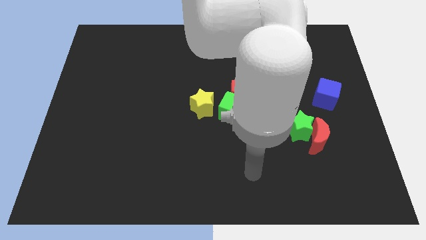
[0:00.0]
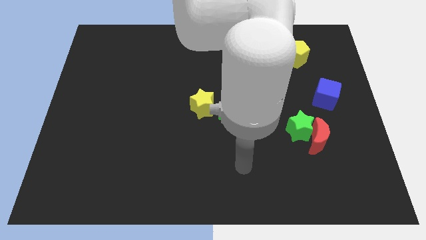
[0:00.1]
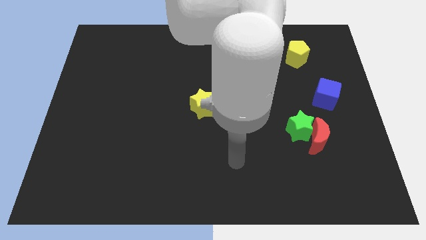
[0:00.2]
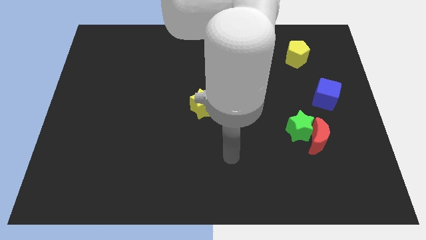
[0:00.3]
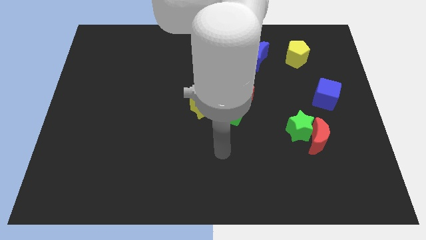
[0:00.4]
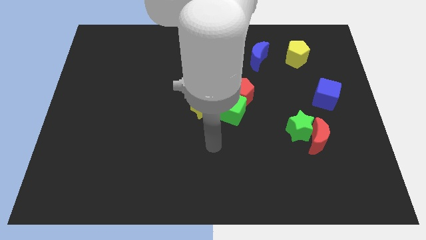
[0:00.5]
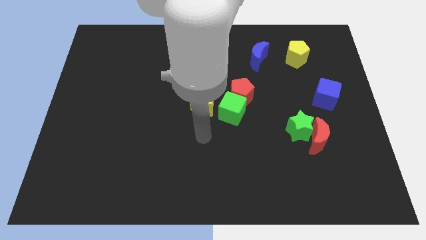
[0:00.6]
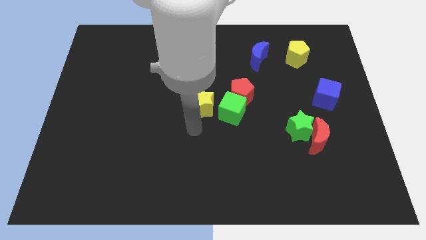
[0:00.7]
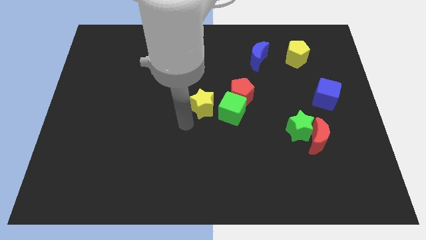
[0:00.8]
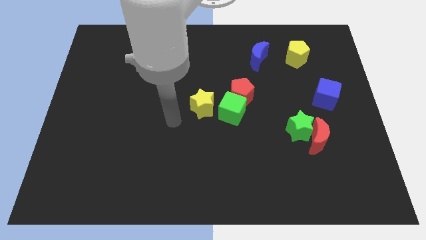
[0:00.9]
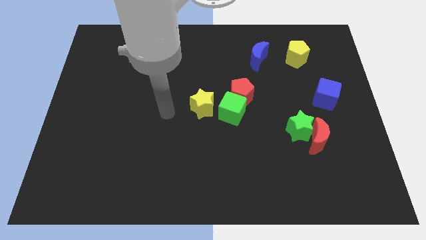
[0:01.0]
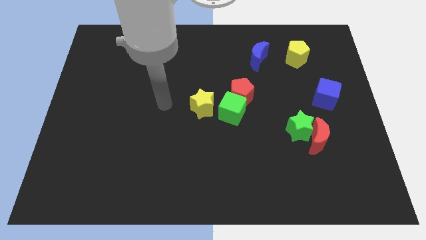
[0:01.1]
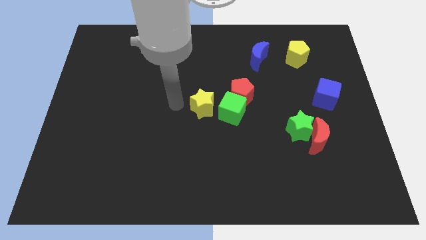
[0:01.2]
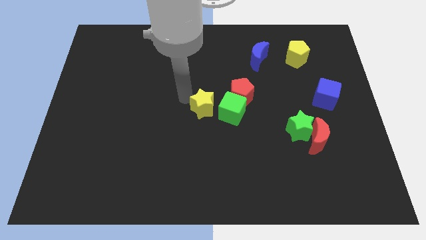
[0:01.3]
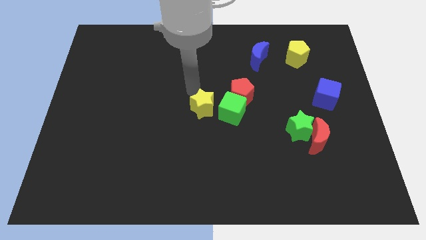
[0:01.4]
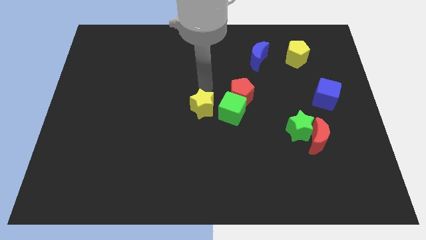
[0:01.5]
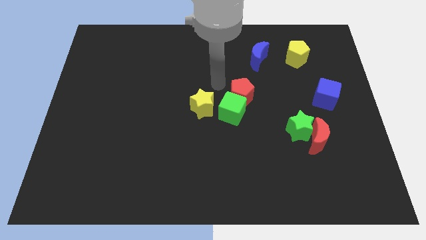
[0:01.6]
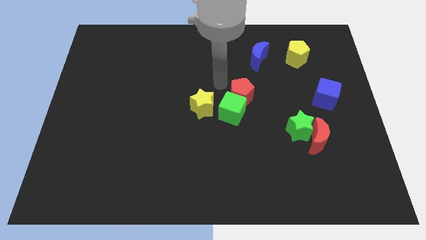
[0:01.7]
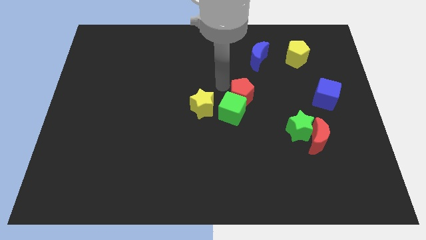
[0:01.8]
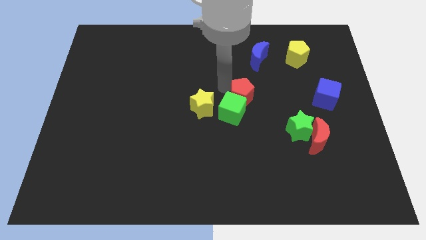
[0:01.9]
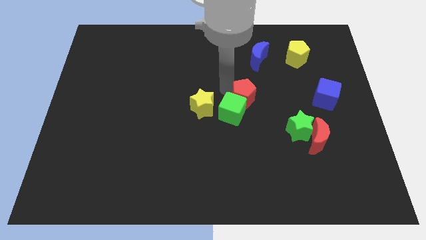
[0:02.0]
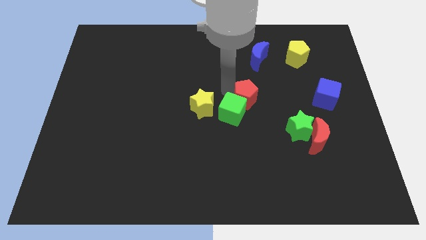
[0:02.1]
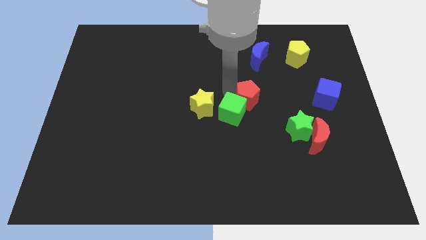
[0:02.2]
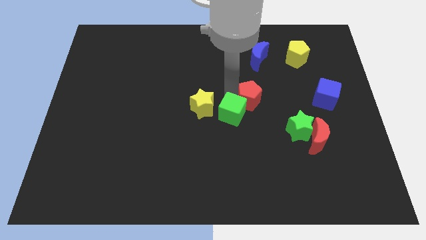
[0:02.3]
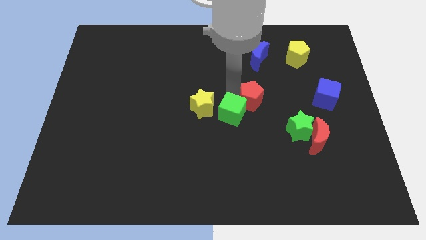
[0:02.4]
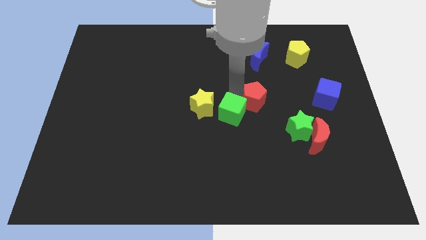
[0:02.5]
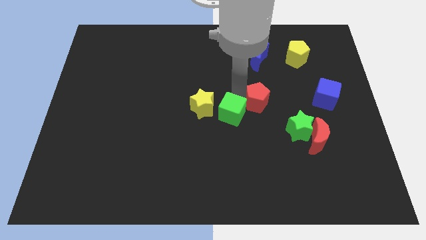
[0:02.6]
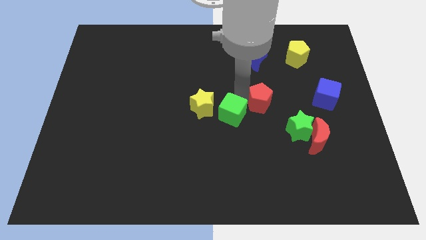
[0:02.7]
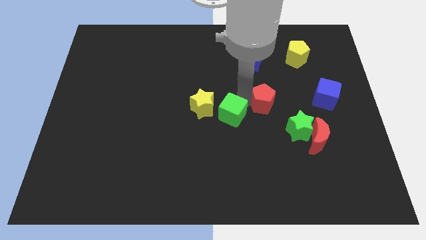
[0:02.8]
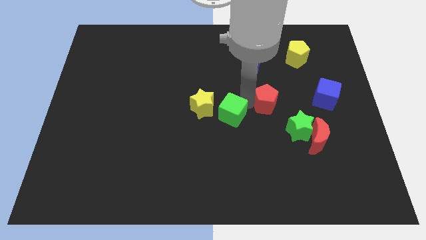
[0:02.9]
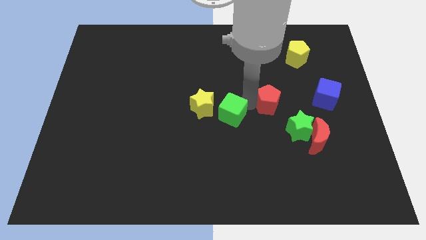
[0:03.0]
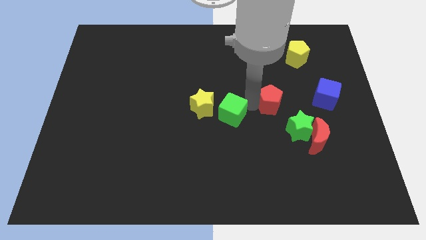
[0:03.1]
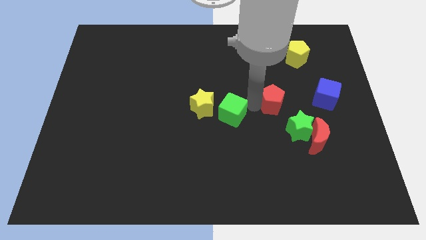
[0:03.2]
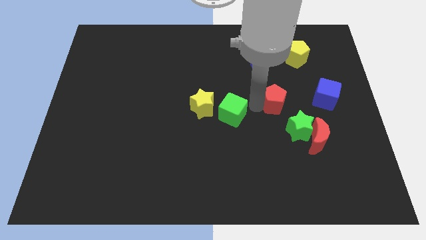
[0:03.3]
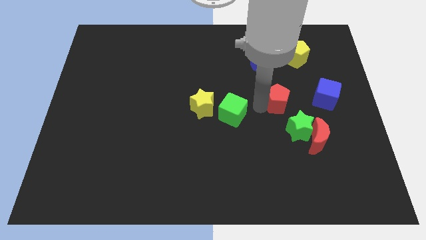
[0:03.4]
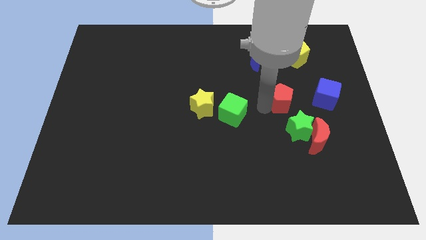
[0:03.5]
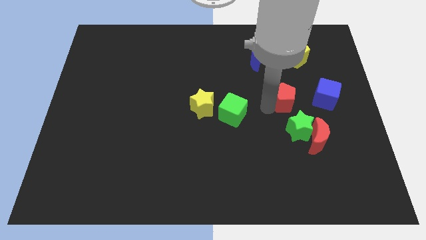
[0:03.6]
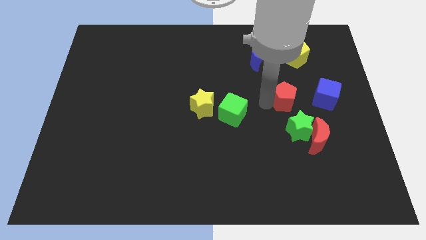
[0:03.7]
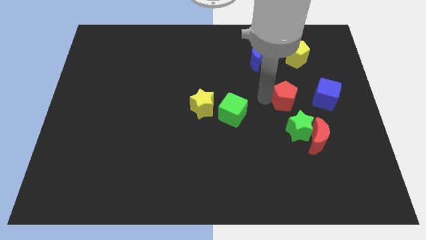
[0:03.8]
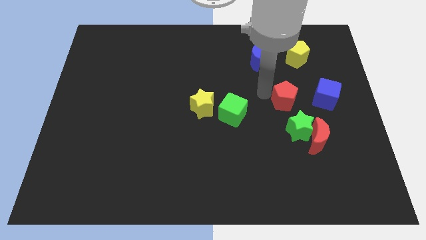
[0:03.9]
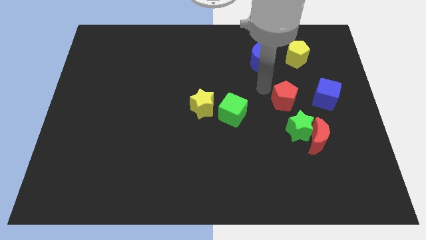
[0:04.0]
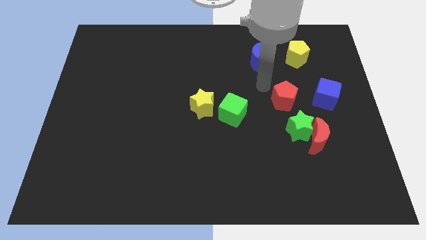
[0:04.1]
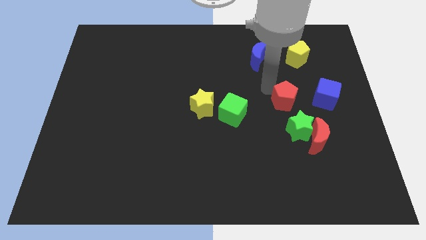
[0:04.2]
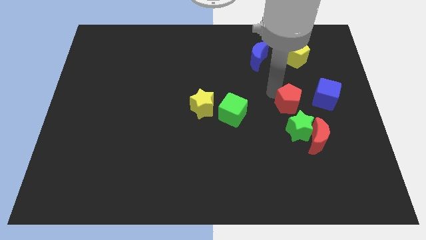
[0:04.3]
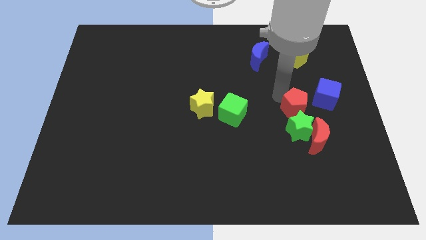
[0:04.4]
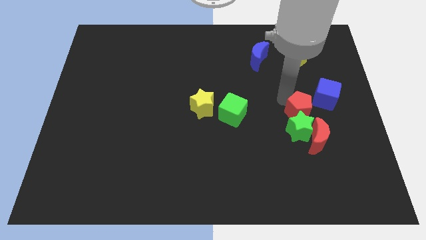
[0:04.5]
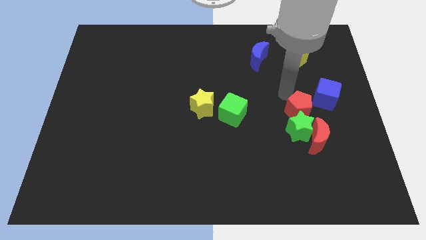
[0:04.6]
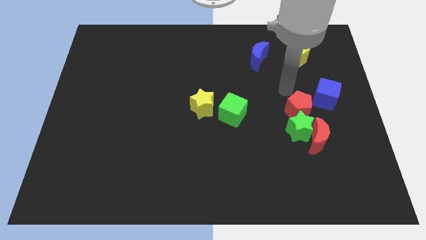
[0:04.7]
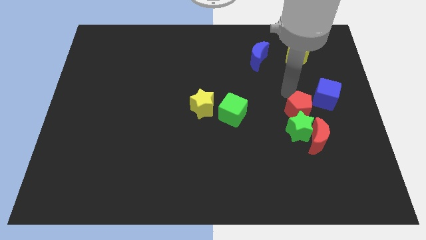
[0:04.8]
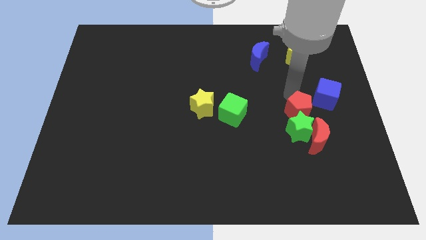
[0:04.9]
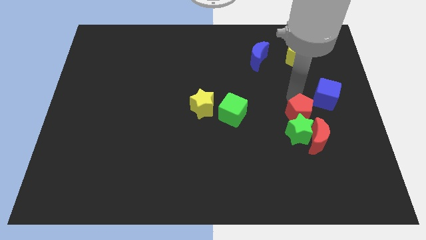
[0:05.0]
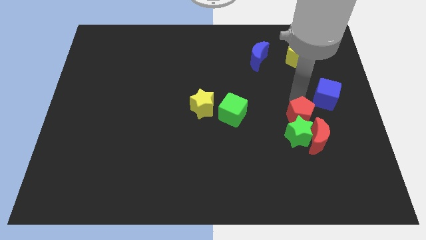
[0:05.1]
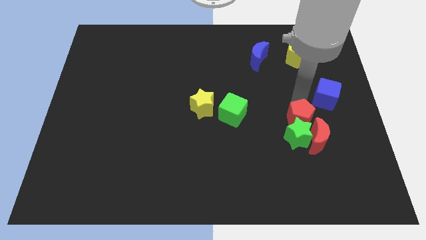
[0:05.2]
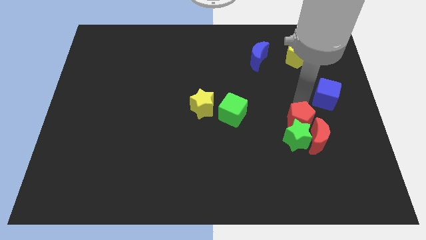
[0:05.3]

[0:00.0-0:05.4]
put the red pentagon towards the red moon

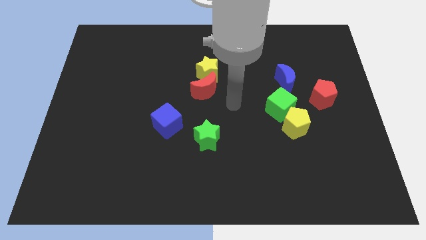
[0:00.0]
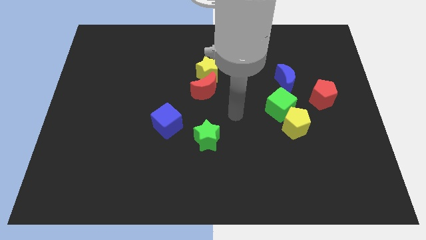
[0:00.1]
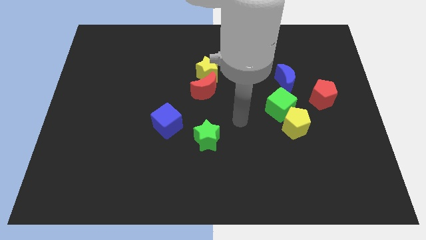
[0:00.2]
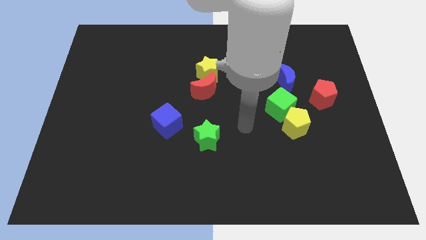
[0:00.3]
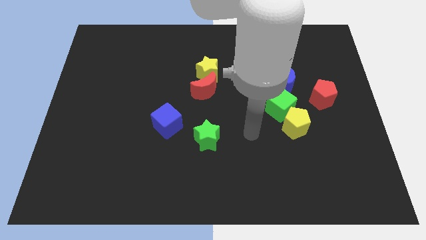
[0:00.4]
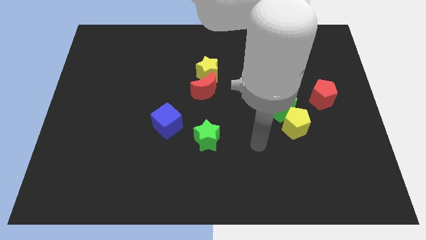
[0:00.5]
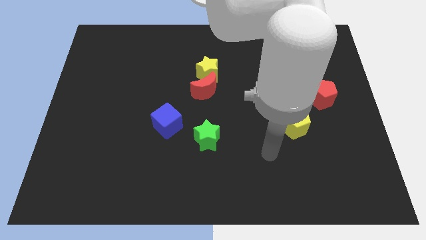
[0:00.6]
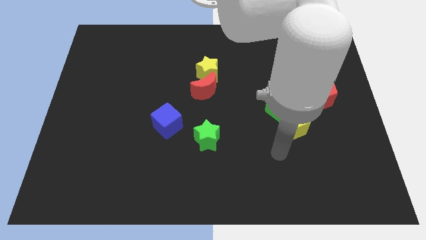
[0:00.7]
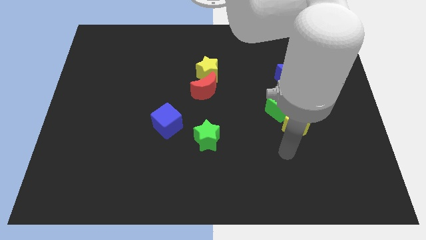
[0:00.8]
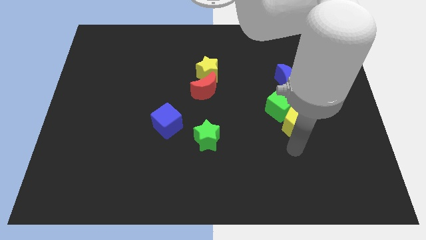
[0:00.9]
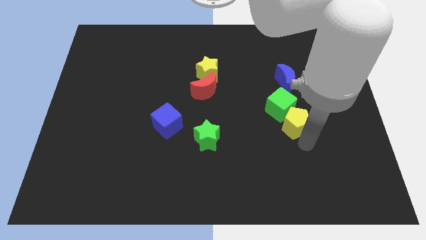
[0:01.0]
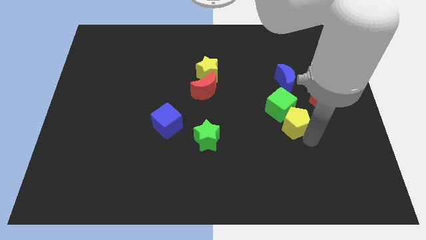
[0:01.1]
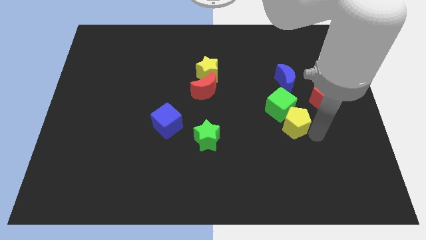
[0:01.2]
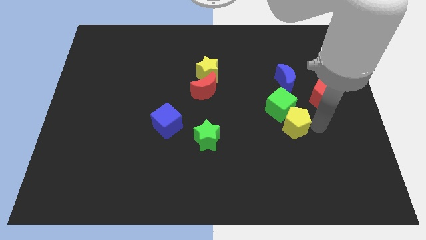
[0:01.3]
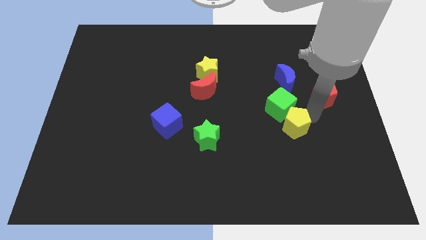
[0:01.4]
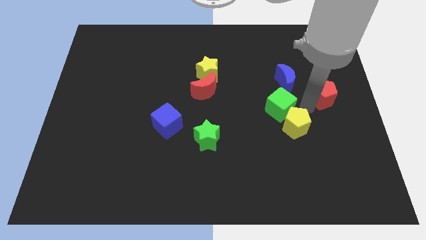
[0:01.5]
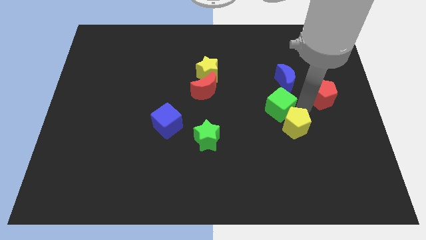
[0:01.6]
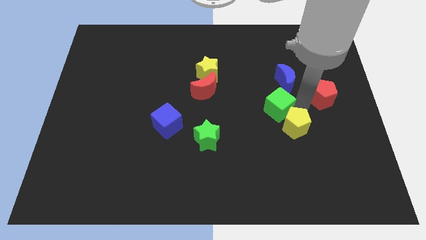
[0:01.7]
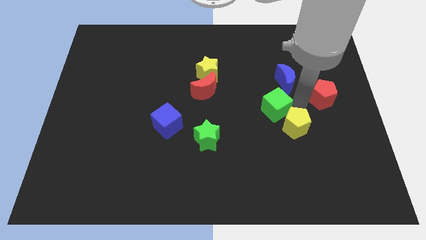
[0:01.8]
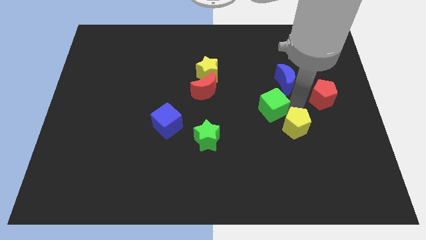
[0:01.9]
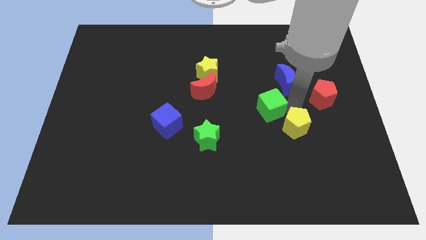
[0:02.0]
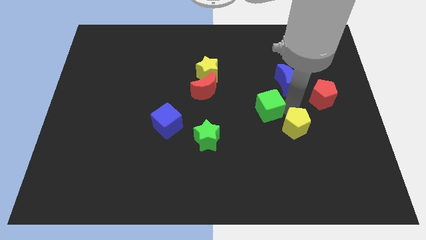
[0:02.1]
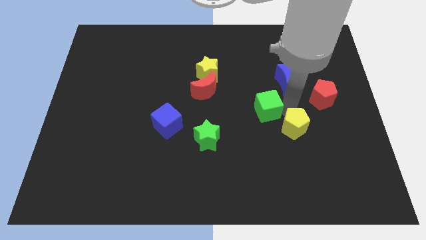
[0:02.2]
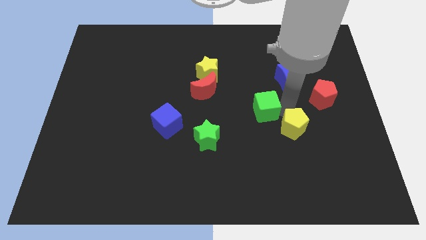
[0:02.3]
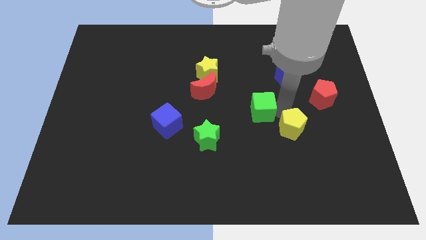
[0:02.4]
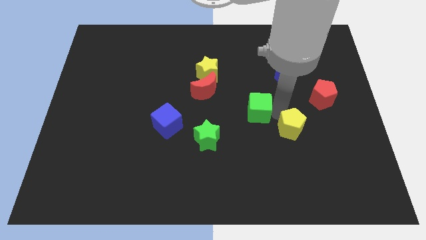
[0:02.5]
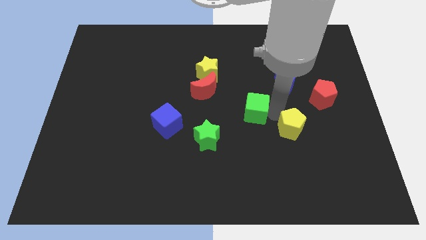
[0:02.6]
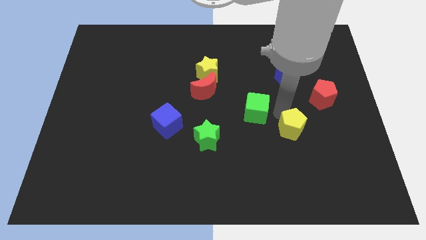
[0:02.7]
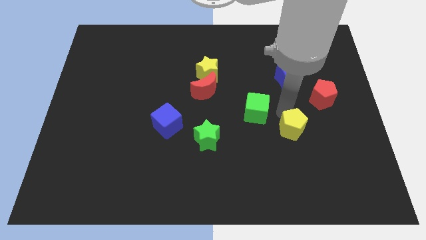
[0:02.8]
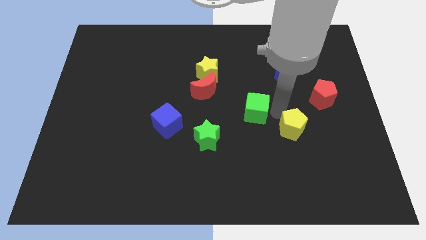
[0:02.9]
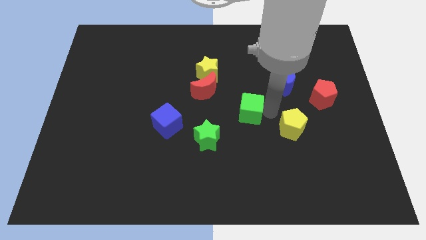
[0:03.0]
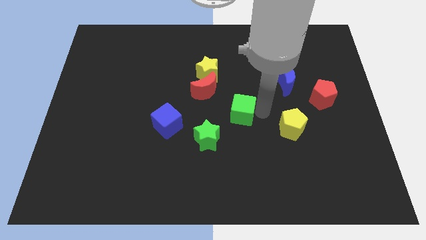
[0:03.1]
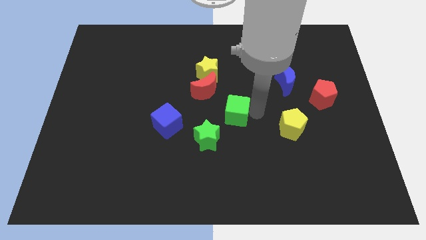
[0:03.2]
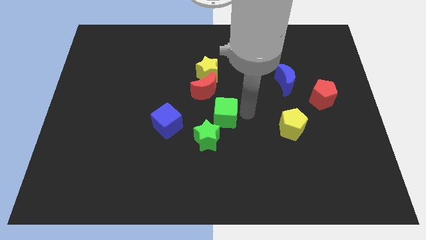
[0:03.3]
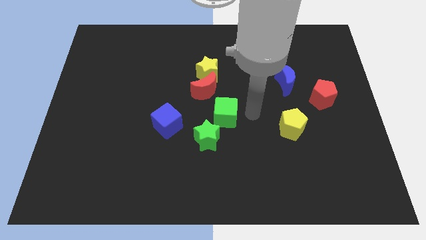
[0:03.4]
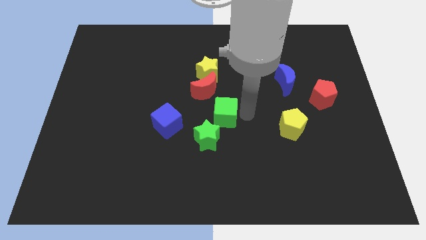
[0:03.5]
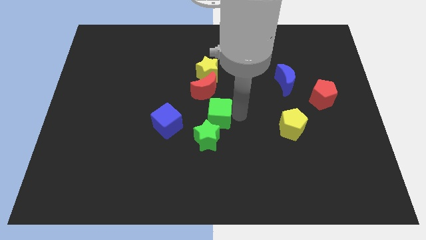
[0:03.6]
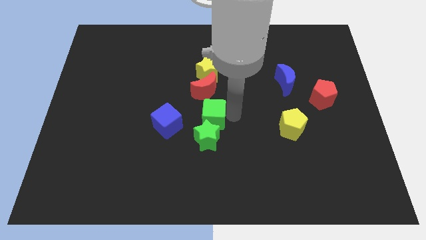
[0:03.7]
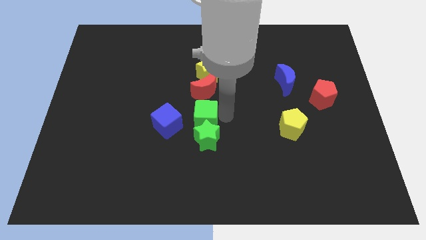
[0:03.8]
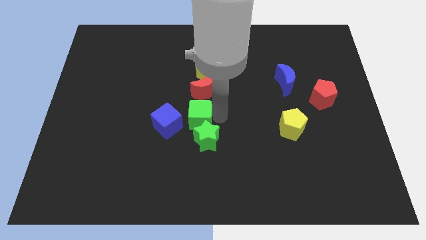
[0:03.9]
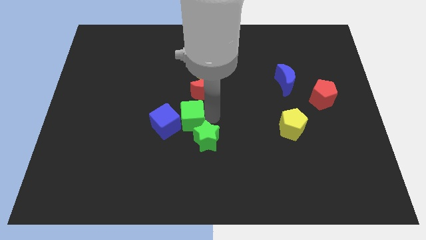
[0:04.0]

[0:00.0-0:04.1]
put the green cube close to the blue cube
